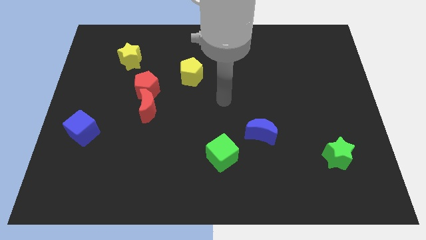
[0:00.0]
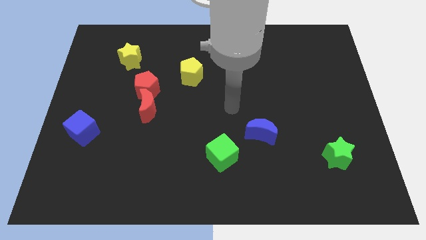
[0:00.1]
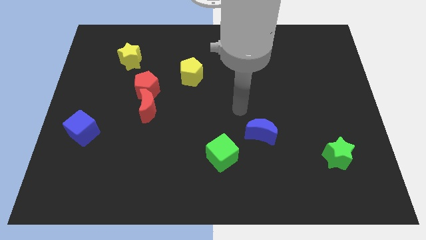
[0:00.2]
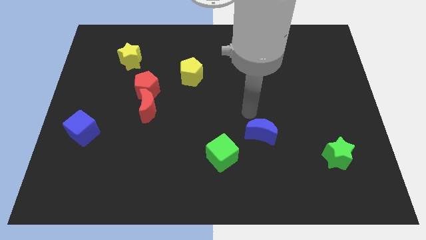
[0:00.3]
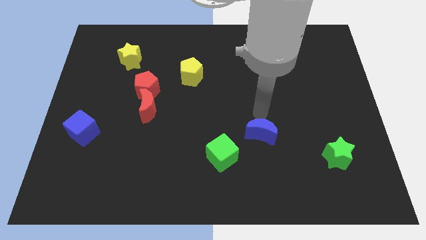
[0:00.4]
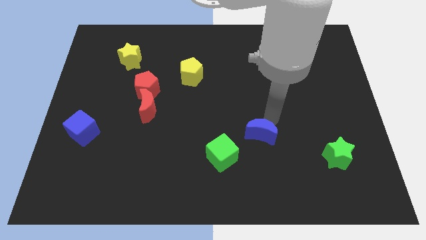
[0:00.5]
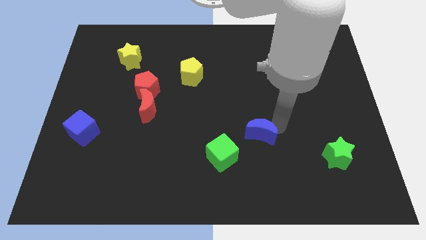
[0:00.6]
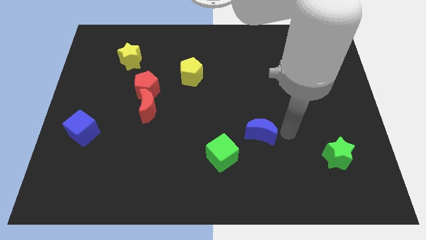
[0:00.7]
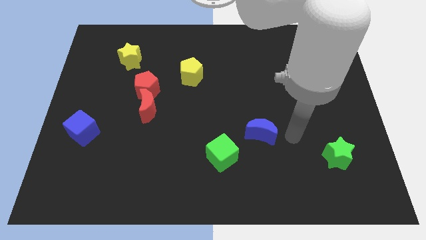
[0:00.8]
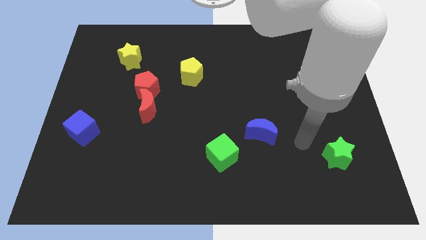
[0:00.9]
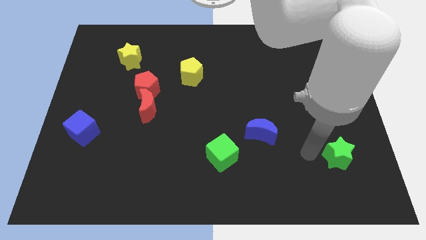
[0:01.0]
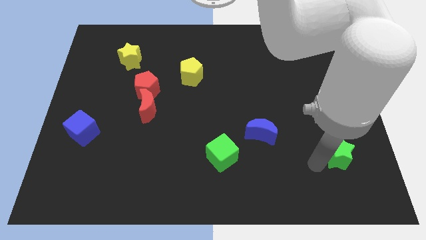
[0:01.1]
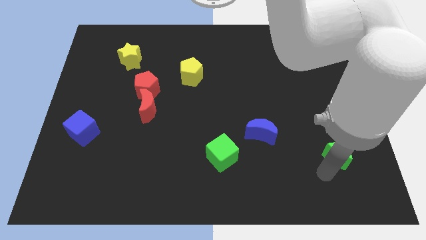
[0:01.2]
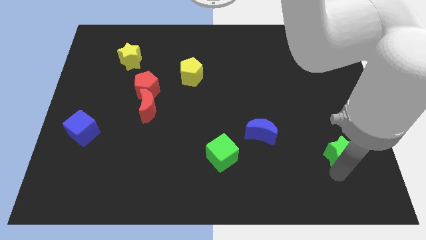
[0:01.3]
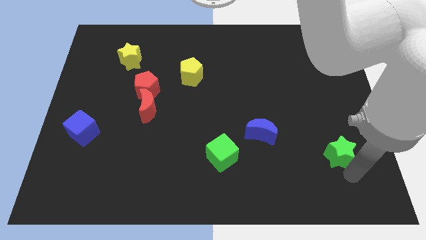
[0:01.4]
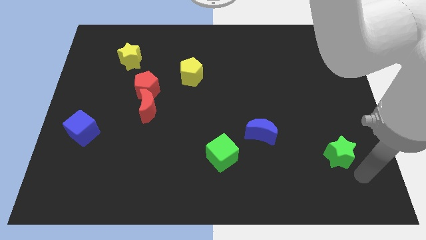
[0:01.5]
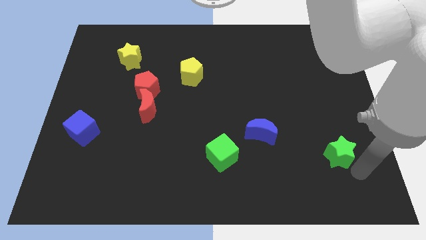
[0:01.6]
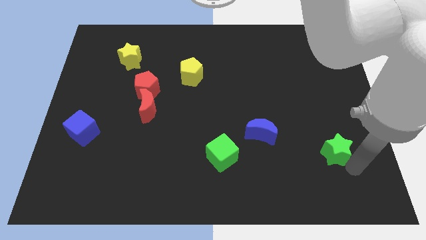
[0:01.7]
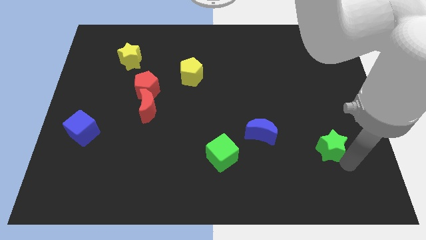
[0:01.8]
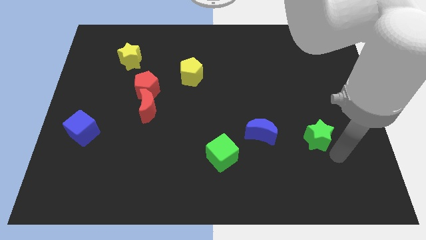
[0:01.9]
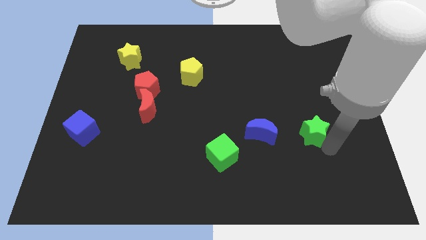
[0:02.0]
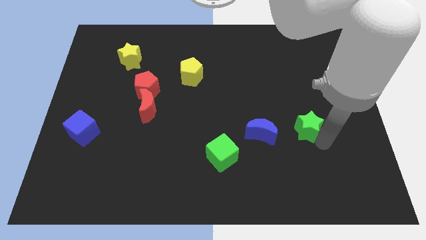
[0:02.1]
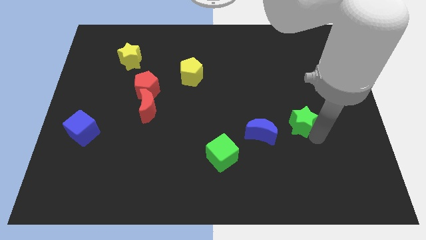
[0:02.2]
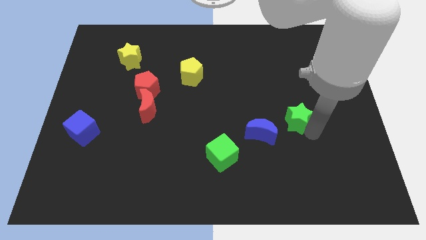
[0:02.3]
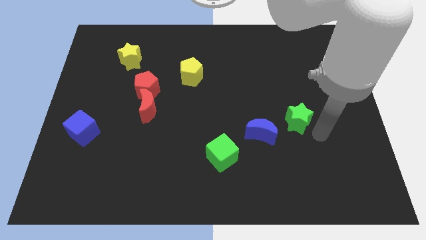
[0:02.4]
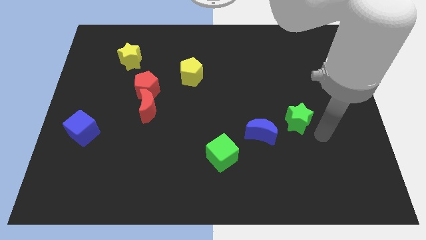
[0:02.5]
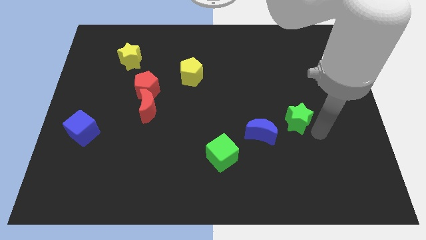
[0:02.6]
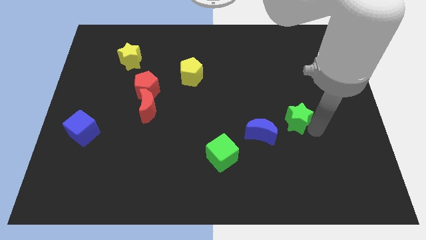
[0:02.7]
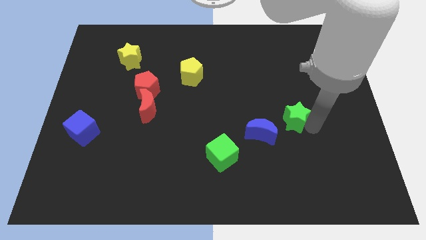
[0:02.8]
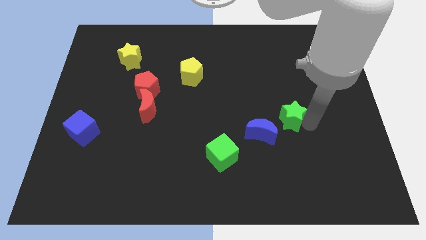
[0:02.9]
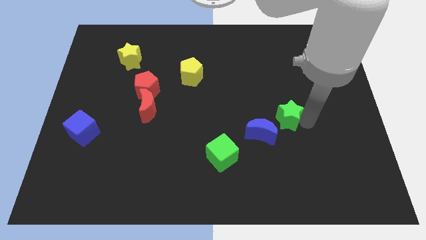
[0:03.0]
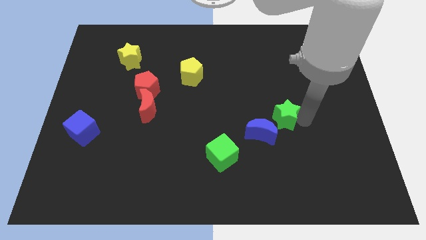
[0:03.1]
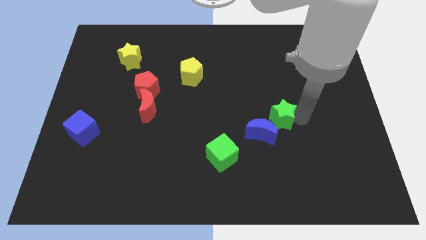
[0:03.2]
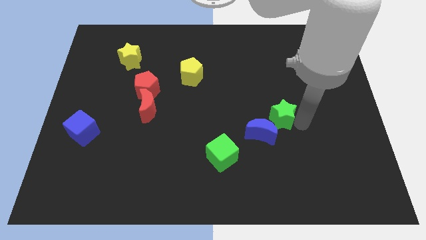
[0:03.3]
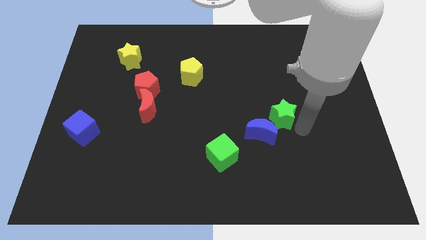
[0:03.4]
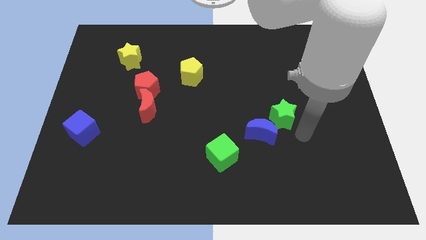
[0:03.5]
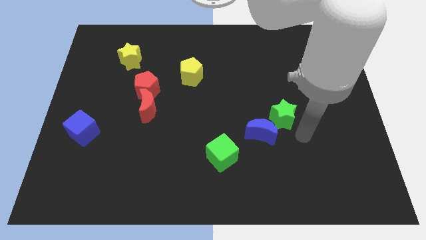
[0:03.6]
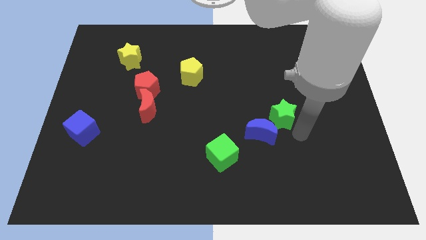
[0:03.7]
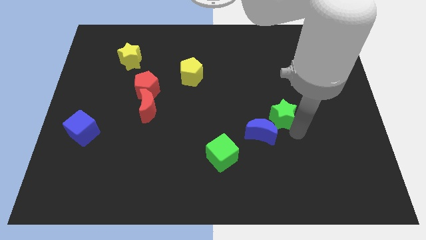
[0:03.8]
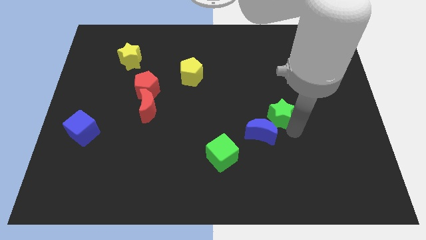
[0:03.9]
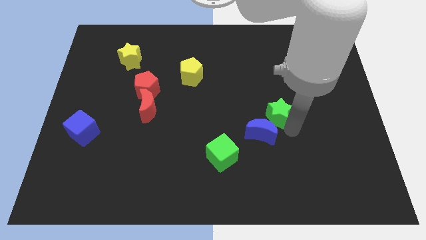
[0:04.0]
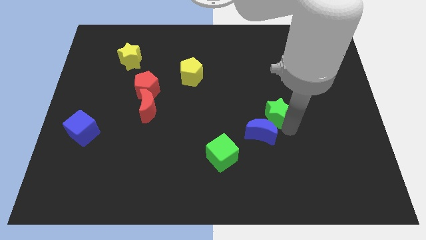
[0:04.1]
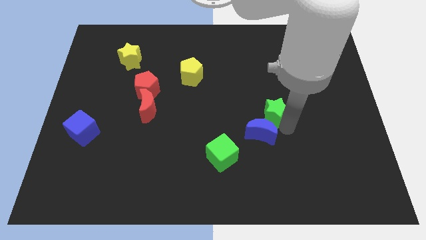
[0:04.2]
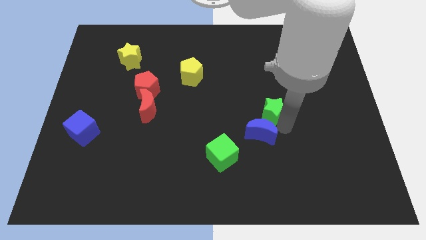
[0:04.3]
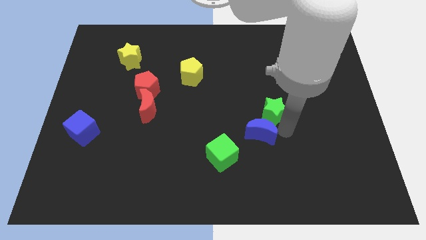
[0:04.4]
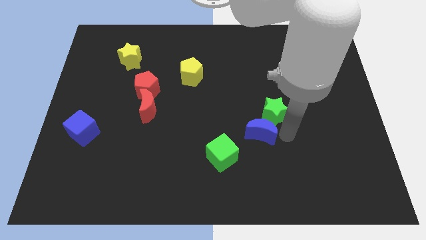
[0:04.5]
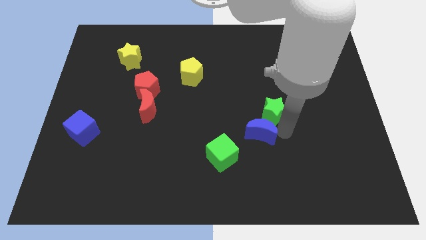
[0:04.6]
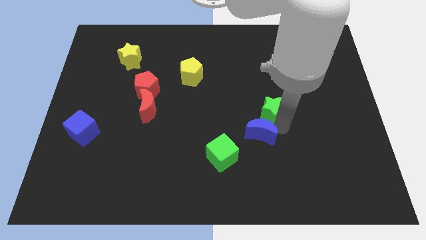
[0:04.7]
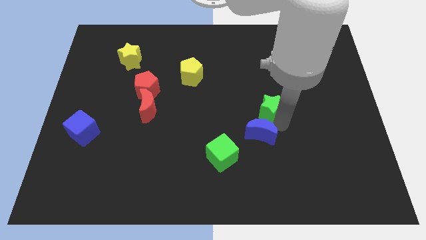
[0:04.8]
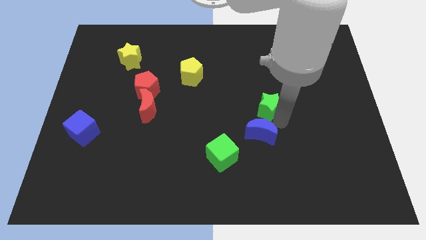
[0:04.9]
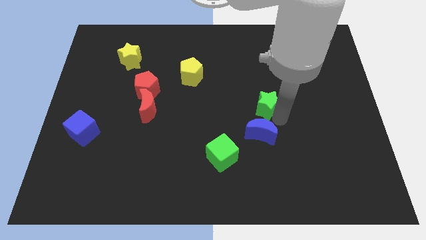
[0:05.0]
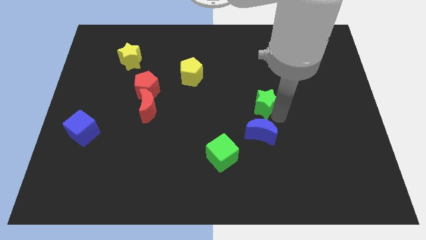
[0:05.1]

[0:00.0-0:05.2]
push the green star up and left

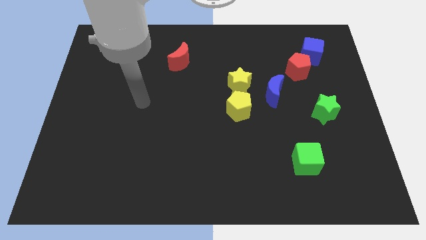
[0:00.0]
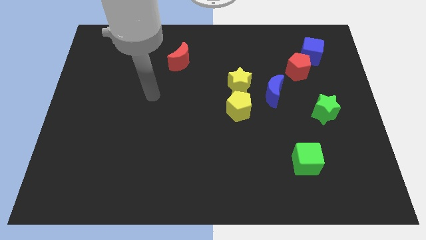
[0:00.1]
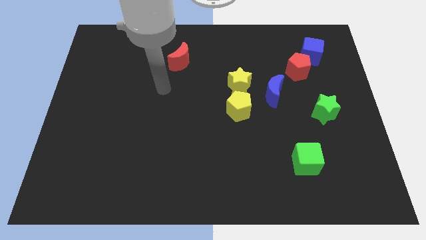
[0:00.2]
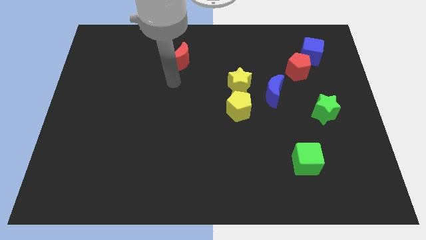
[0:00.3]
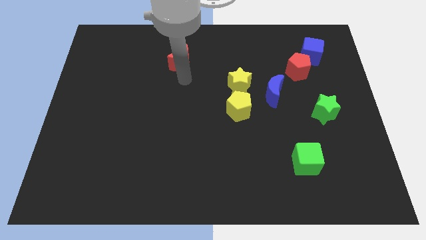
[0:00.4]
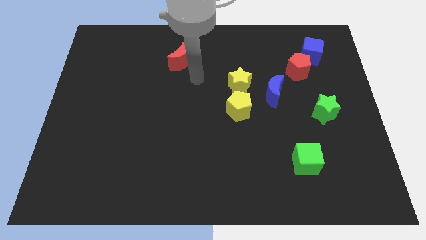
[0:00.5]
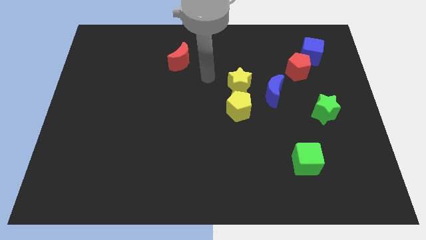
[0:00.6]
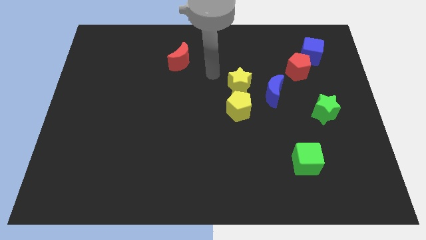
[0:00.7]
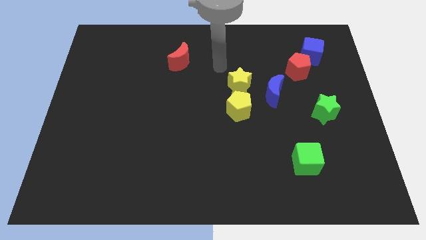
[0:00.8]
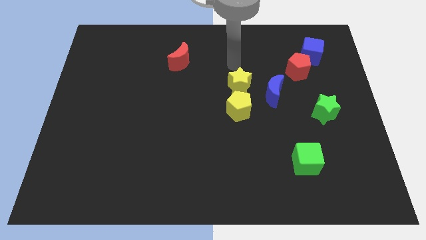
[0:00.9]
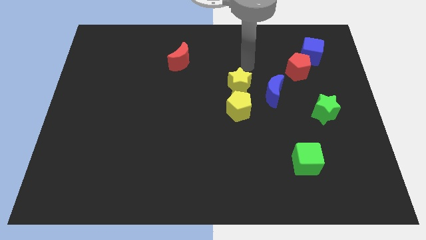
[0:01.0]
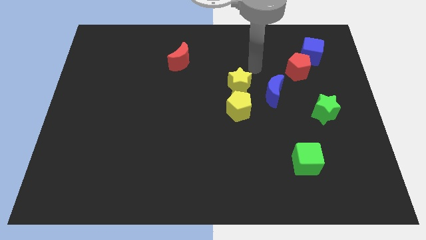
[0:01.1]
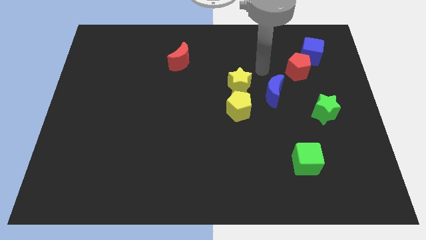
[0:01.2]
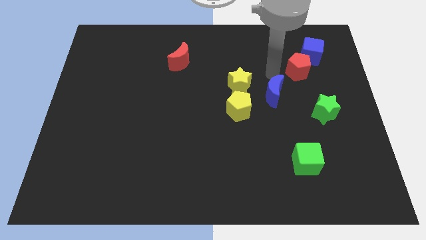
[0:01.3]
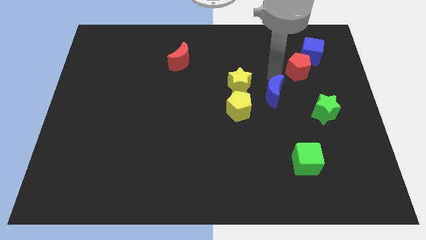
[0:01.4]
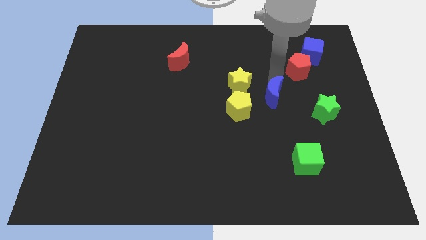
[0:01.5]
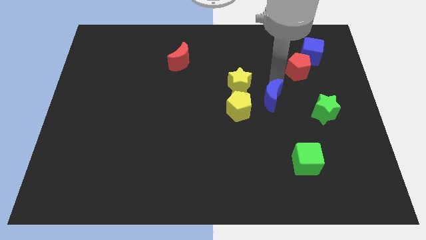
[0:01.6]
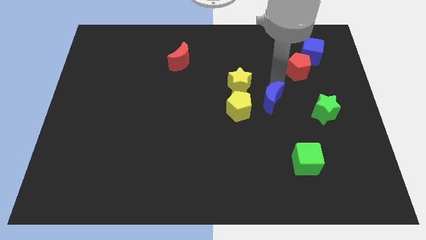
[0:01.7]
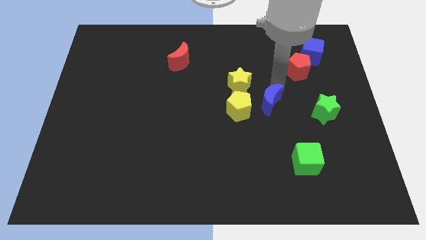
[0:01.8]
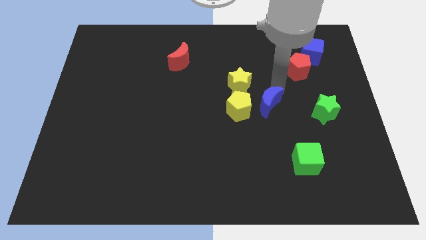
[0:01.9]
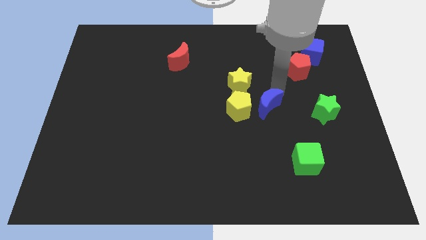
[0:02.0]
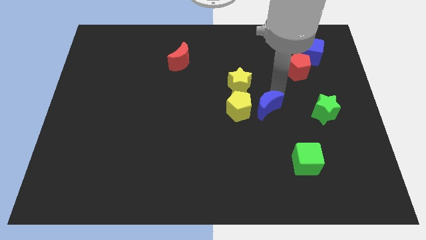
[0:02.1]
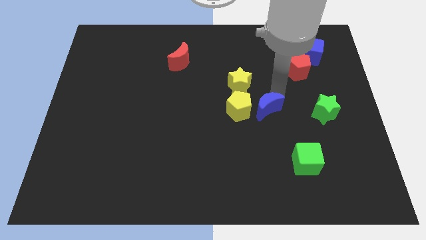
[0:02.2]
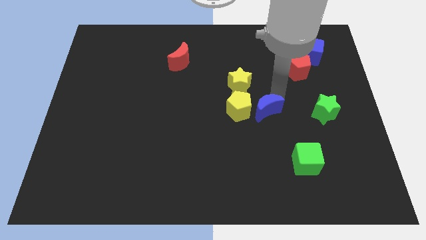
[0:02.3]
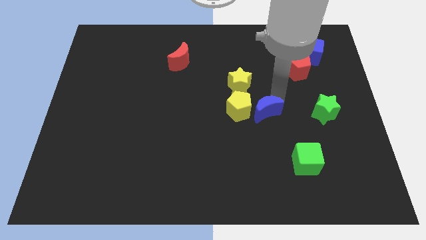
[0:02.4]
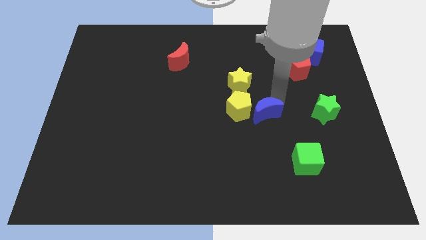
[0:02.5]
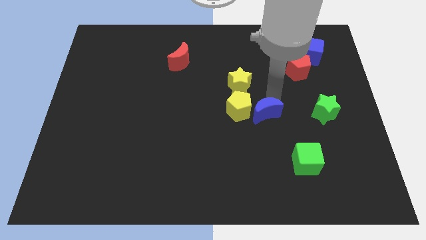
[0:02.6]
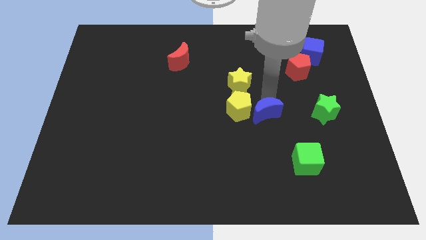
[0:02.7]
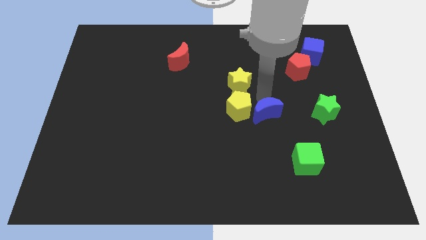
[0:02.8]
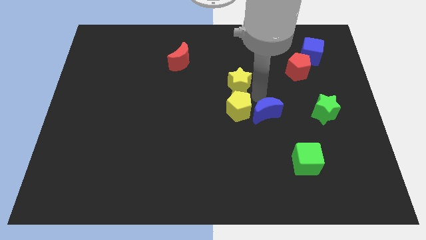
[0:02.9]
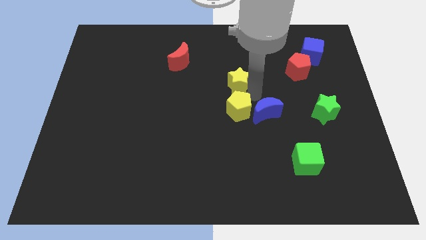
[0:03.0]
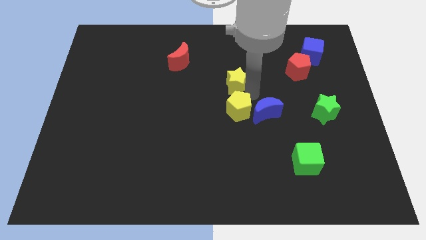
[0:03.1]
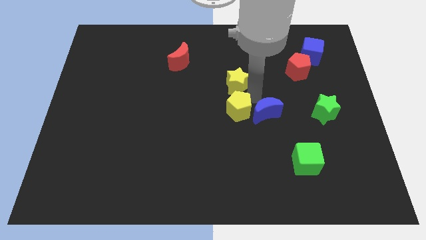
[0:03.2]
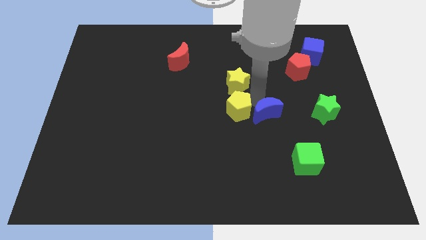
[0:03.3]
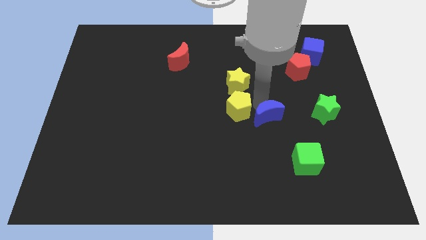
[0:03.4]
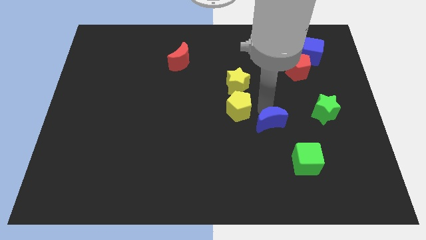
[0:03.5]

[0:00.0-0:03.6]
slightly push the blue moon downwards
